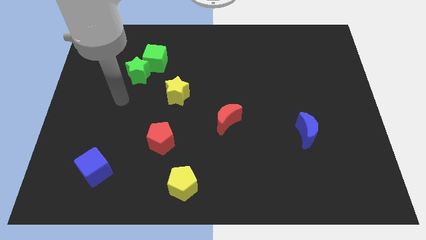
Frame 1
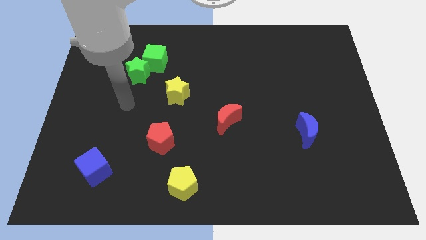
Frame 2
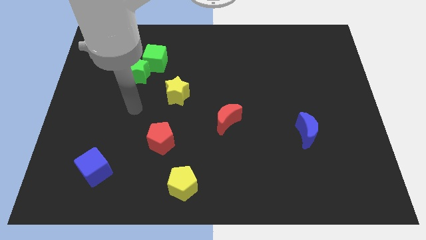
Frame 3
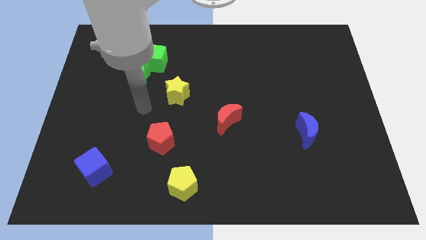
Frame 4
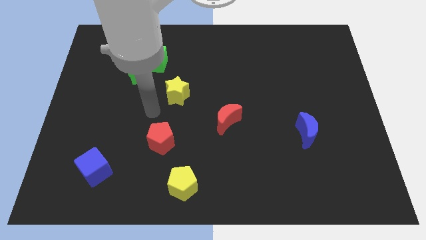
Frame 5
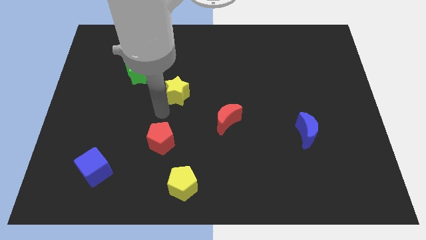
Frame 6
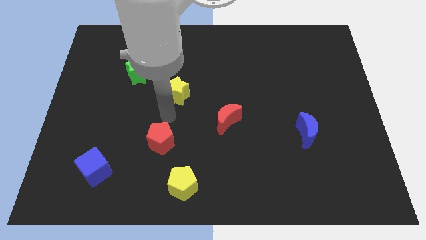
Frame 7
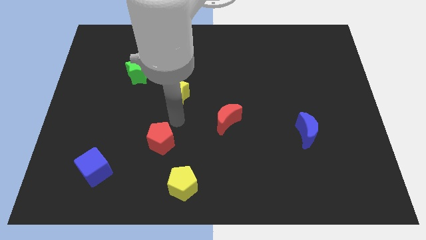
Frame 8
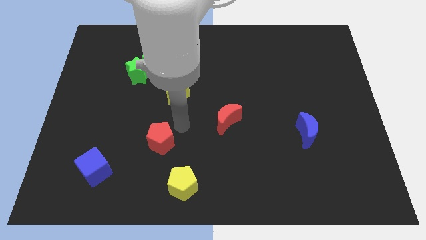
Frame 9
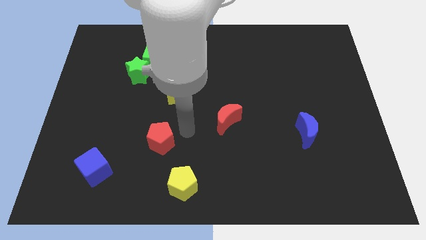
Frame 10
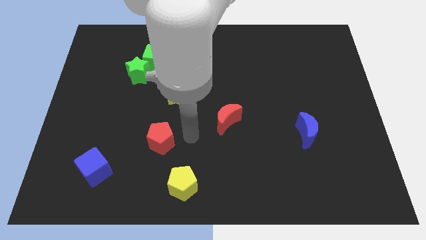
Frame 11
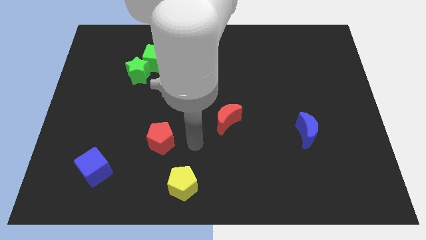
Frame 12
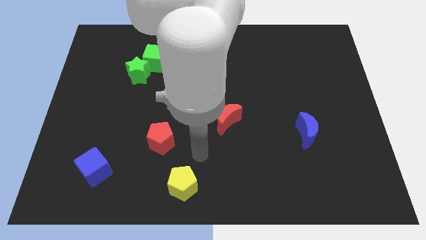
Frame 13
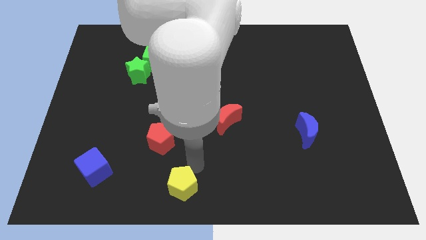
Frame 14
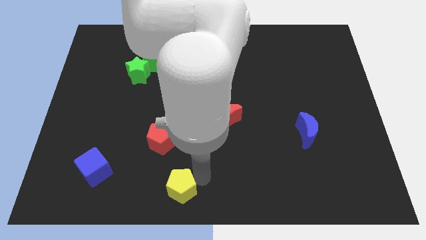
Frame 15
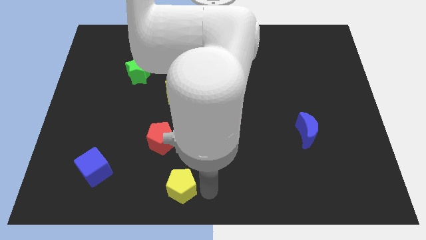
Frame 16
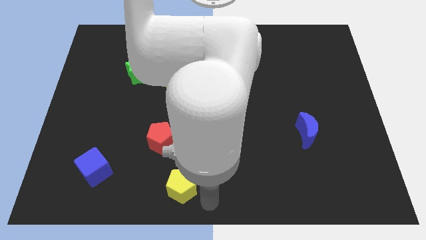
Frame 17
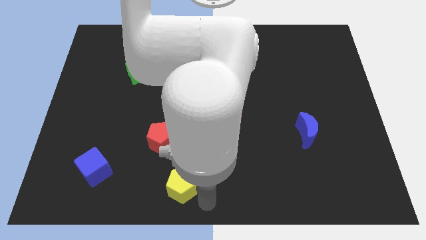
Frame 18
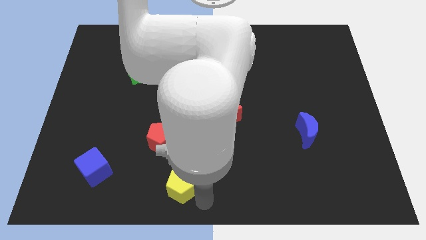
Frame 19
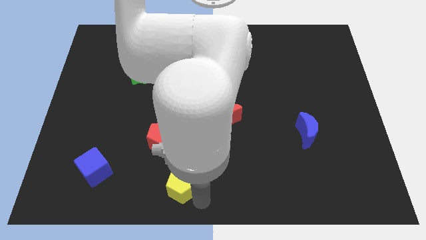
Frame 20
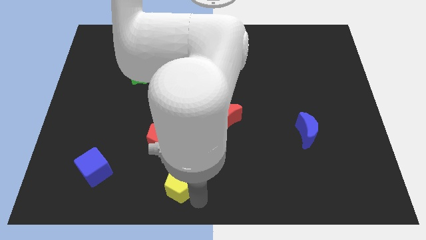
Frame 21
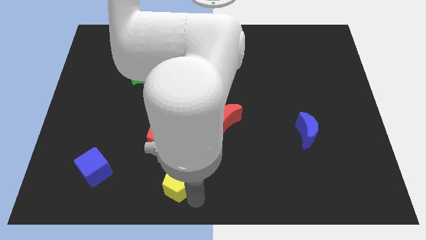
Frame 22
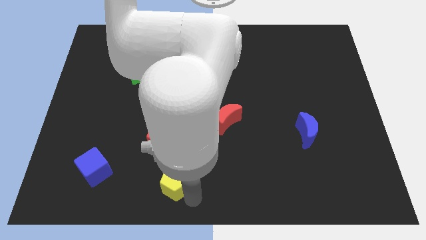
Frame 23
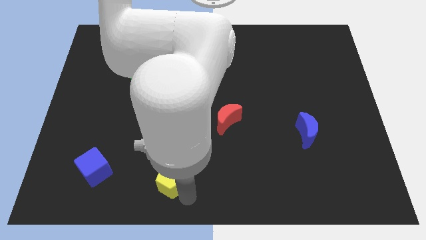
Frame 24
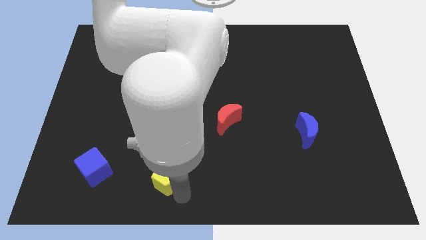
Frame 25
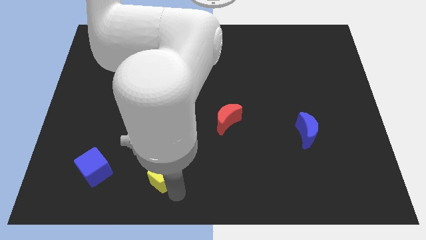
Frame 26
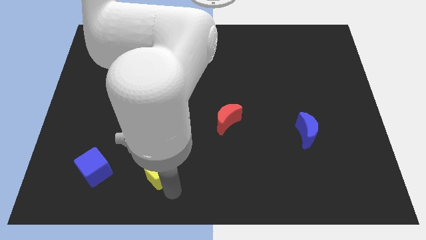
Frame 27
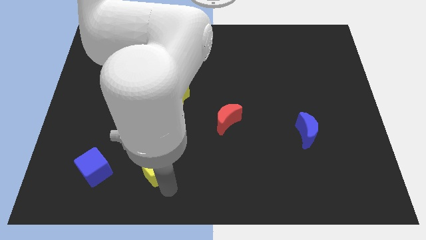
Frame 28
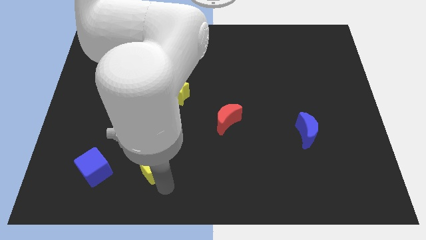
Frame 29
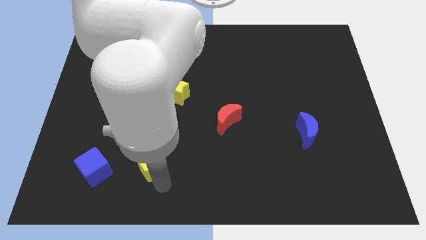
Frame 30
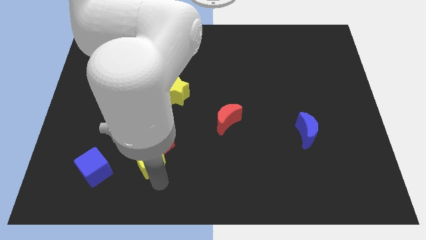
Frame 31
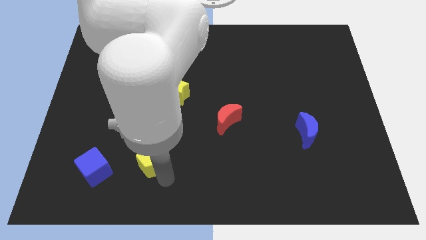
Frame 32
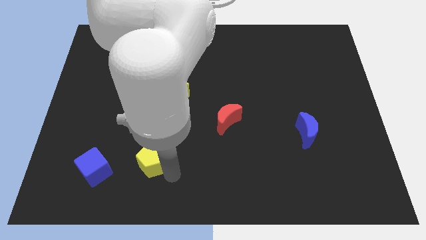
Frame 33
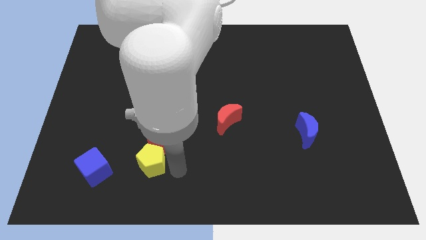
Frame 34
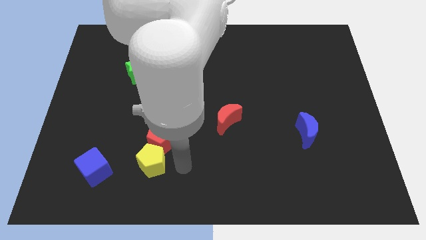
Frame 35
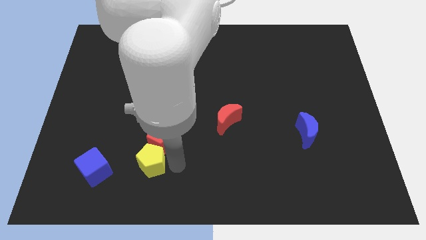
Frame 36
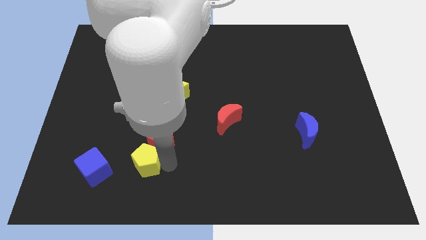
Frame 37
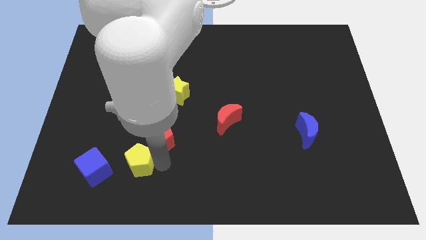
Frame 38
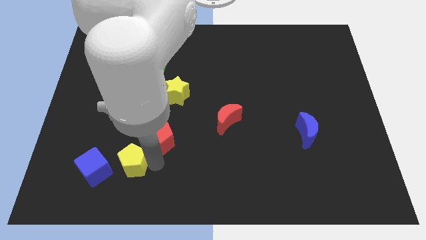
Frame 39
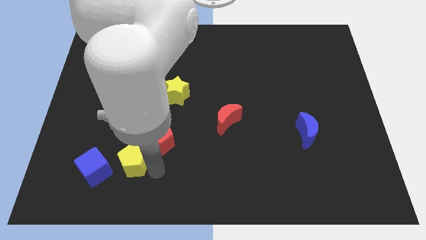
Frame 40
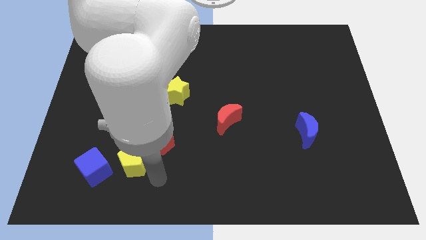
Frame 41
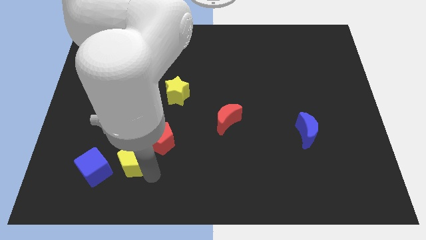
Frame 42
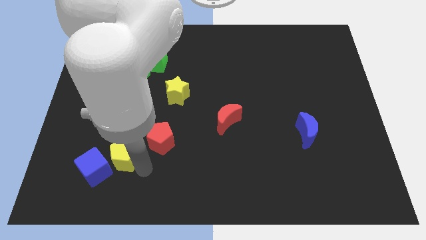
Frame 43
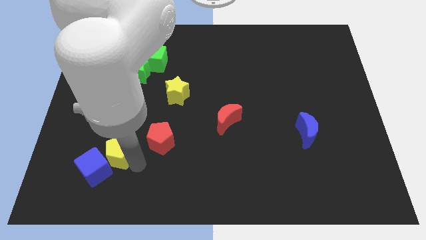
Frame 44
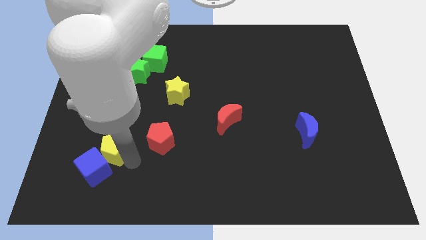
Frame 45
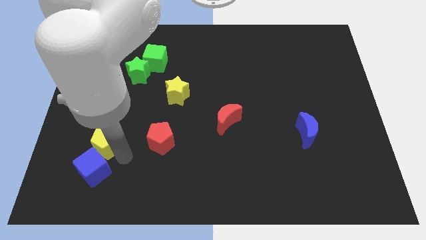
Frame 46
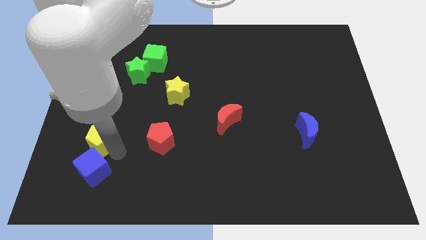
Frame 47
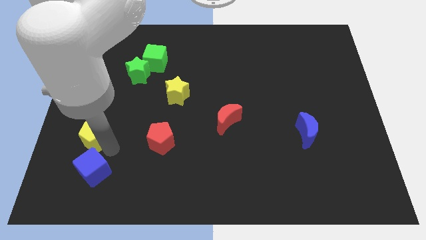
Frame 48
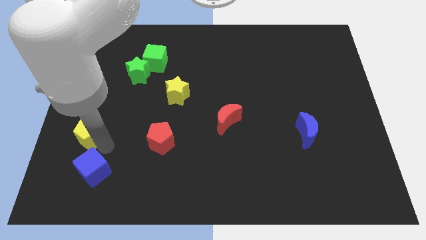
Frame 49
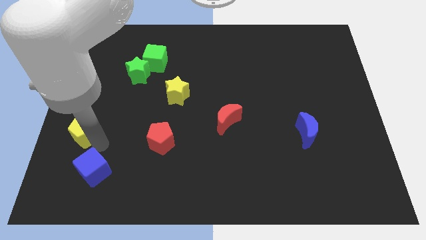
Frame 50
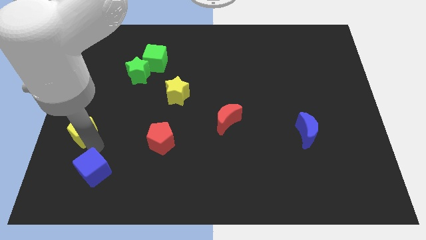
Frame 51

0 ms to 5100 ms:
move the yellow pentagon to the left side

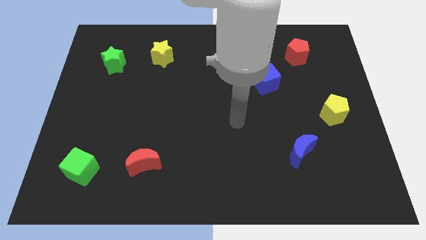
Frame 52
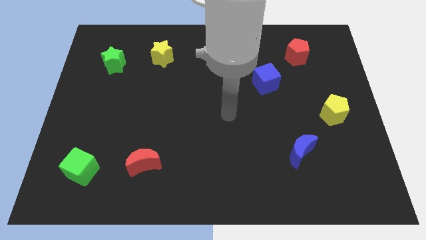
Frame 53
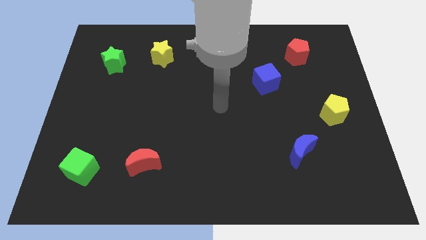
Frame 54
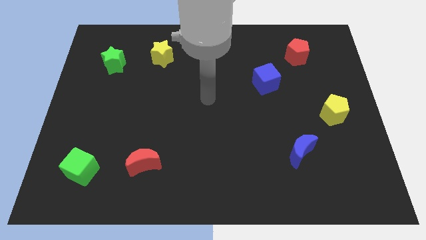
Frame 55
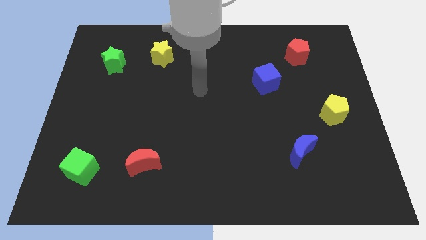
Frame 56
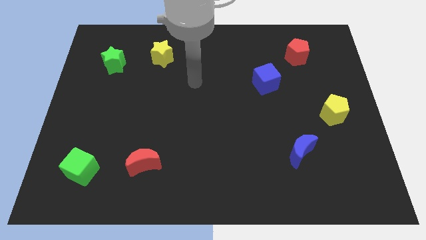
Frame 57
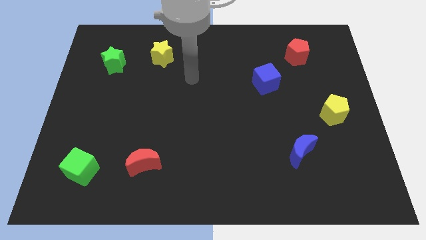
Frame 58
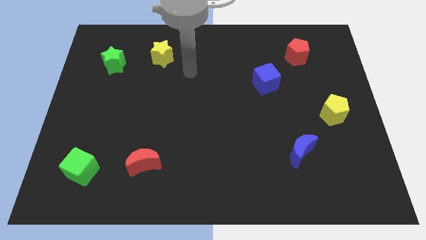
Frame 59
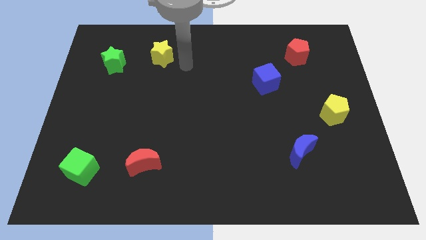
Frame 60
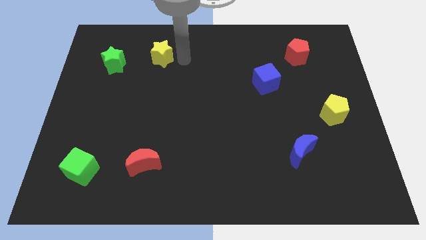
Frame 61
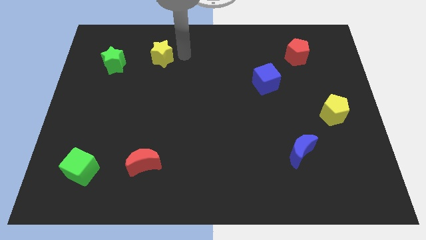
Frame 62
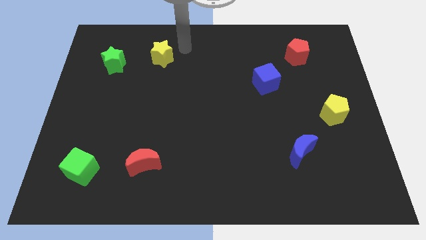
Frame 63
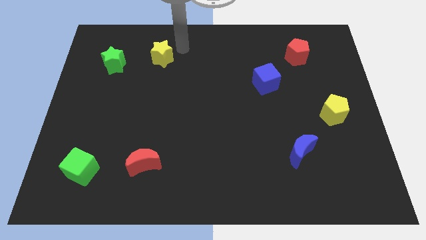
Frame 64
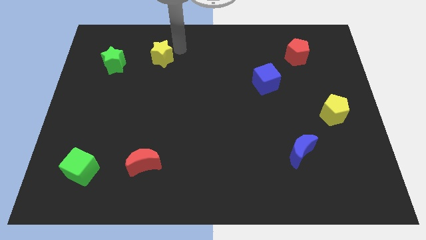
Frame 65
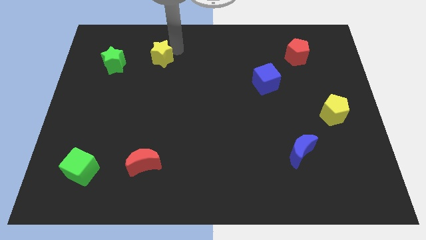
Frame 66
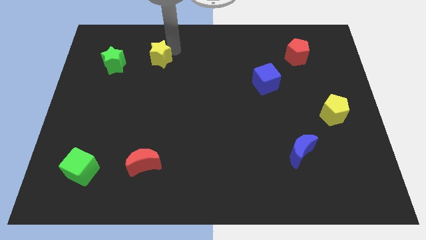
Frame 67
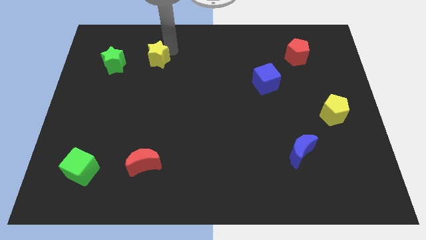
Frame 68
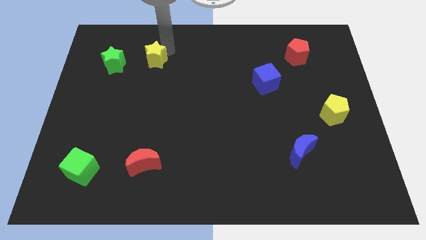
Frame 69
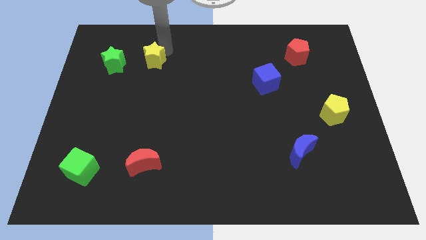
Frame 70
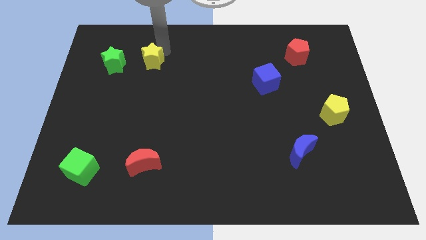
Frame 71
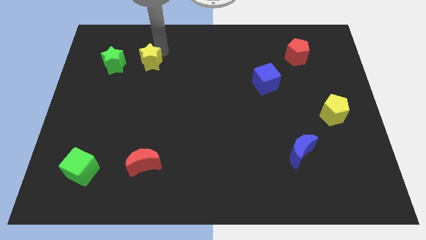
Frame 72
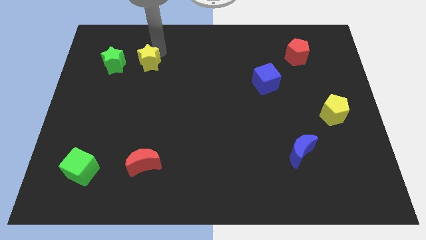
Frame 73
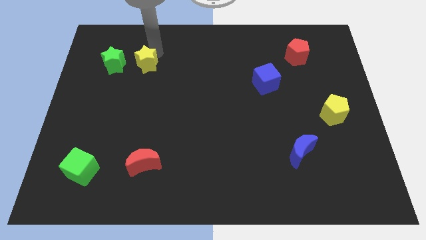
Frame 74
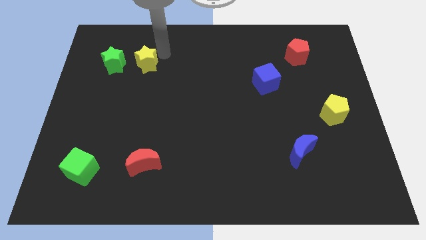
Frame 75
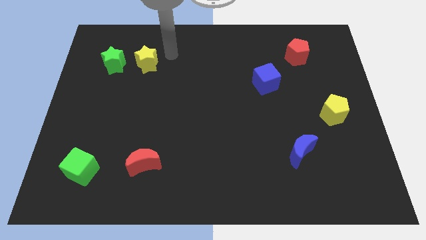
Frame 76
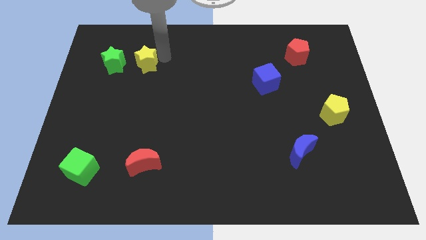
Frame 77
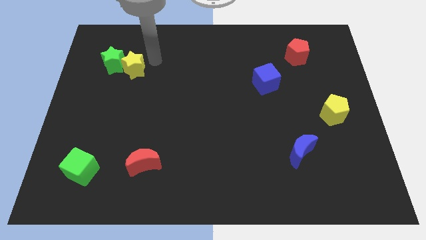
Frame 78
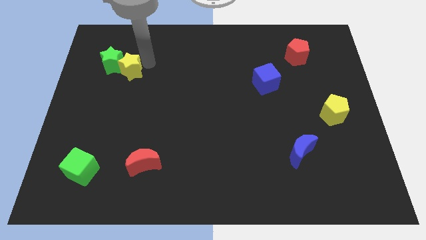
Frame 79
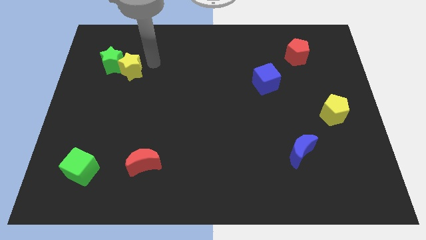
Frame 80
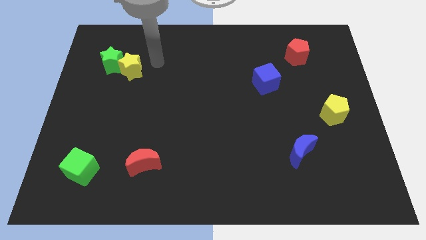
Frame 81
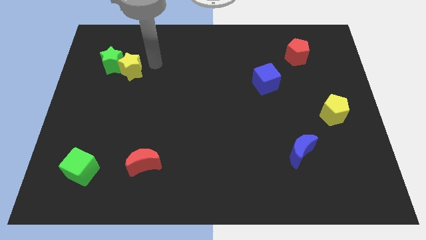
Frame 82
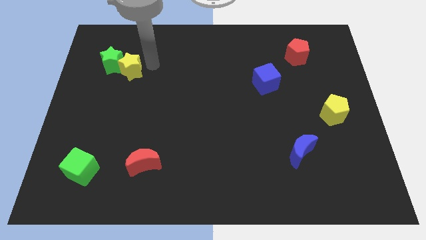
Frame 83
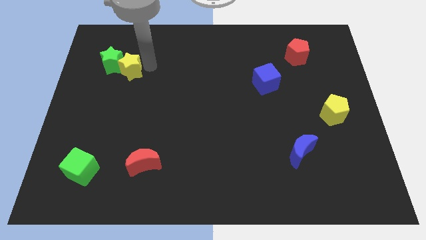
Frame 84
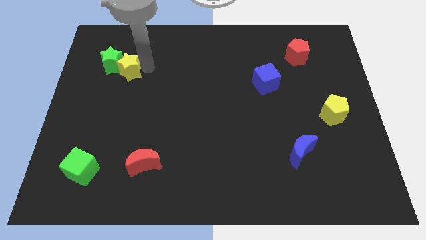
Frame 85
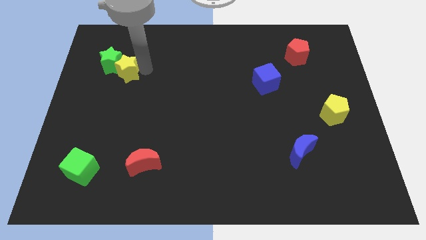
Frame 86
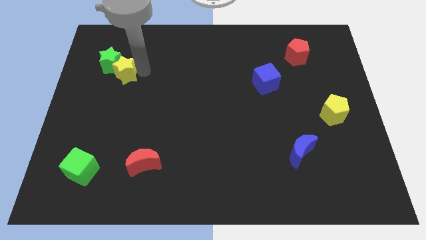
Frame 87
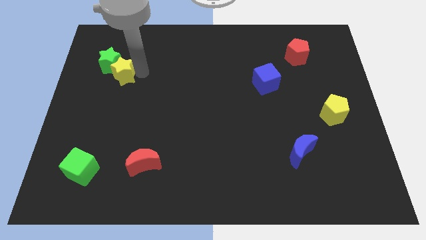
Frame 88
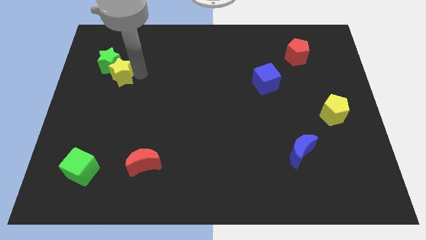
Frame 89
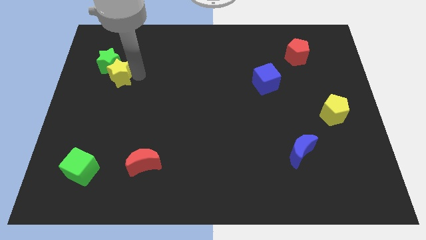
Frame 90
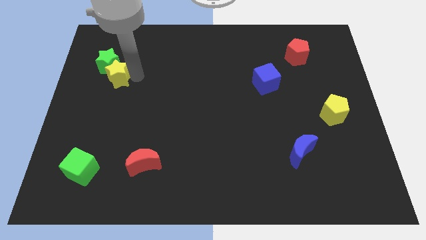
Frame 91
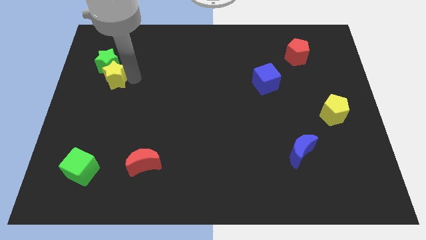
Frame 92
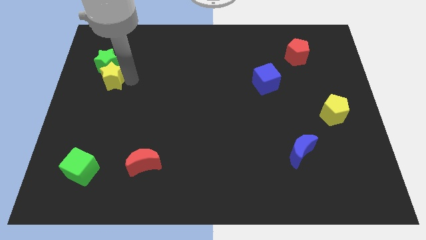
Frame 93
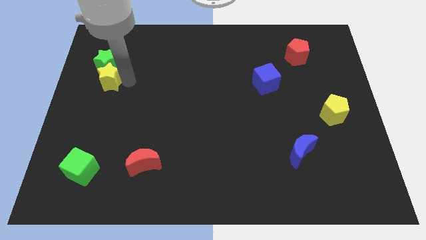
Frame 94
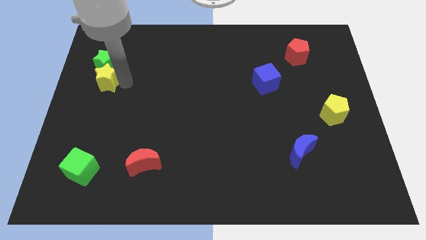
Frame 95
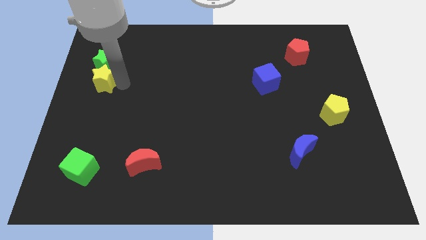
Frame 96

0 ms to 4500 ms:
slide the yellow star to the left side
